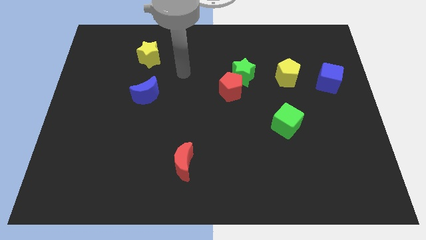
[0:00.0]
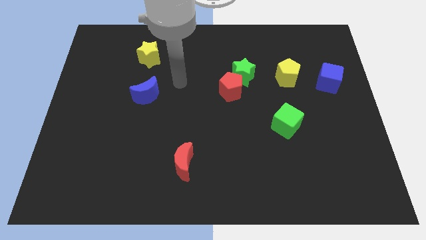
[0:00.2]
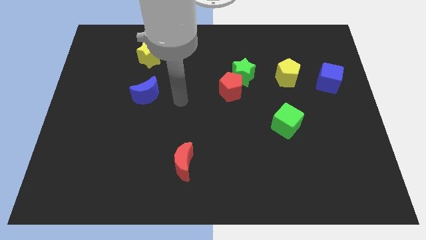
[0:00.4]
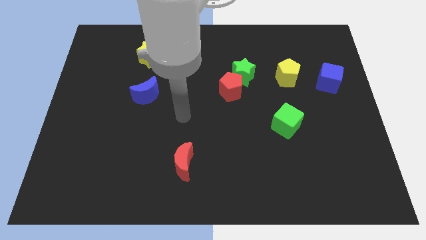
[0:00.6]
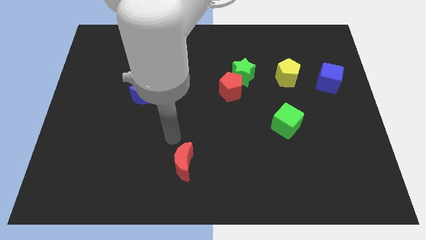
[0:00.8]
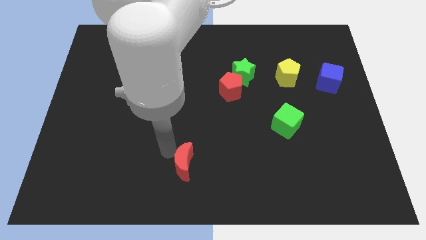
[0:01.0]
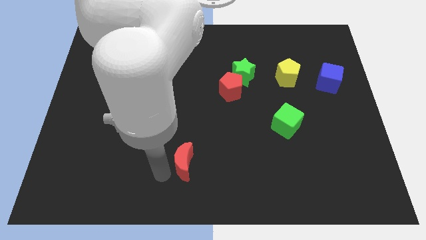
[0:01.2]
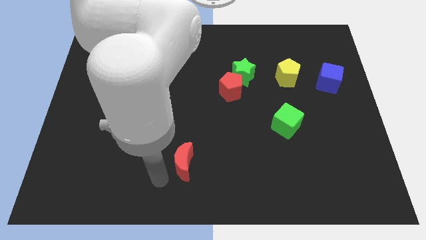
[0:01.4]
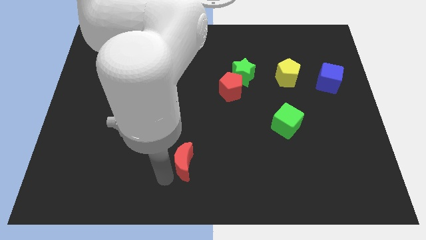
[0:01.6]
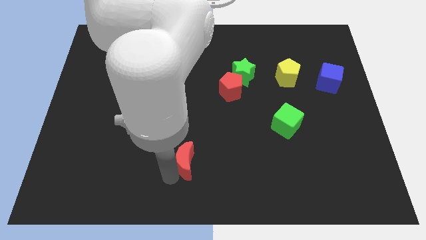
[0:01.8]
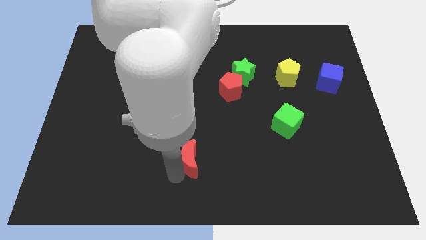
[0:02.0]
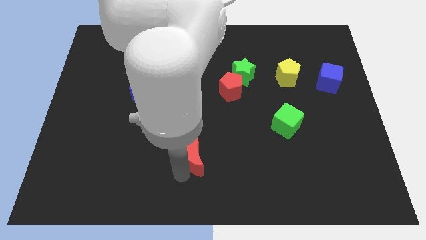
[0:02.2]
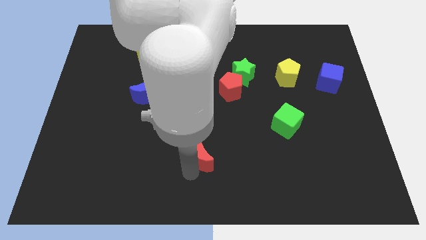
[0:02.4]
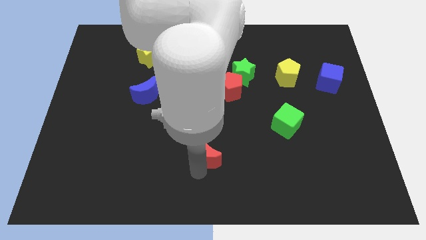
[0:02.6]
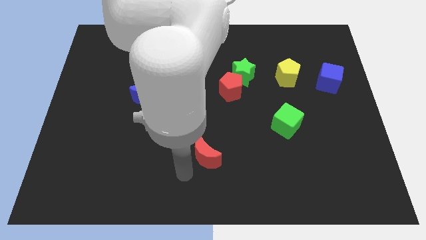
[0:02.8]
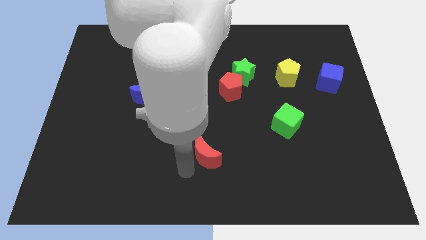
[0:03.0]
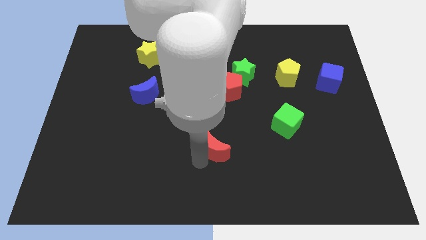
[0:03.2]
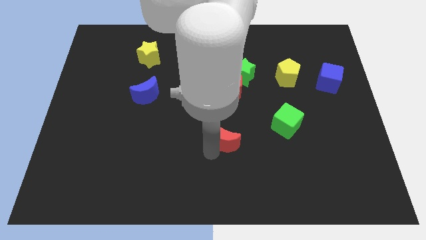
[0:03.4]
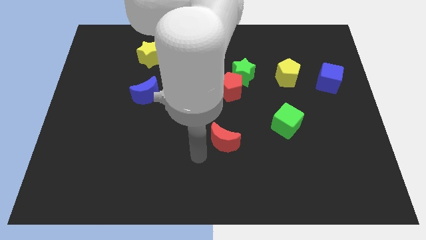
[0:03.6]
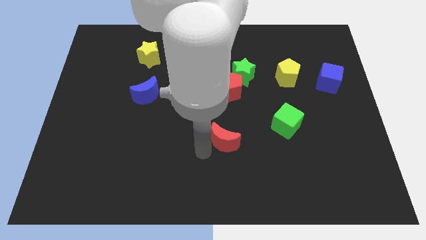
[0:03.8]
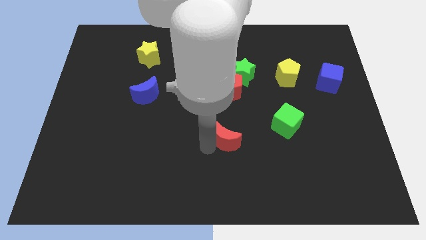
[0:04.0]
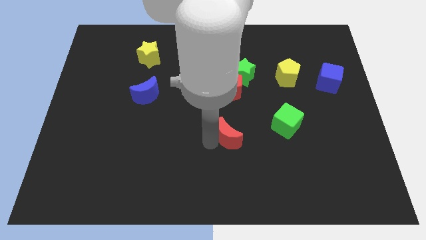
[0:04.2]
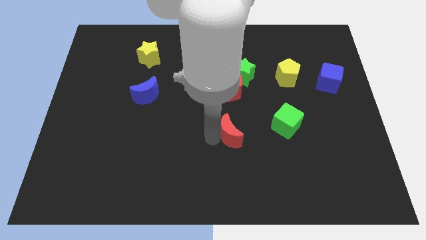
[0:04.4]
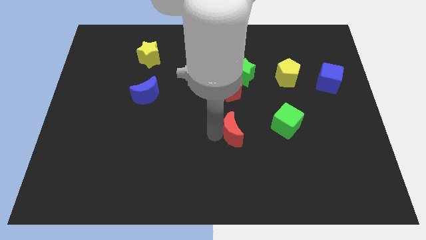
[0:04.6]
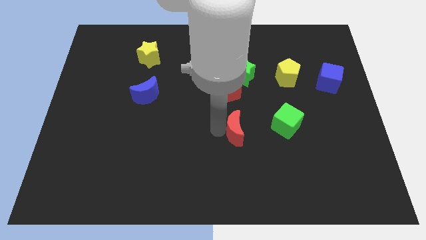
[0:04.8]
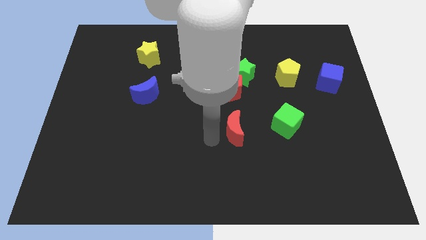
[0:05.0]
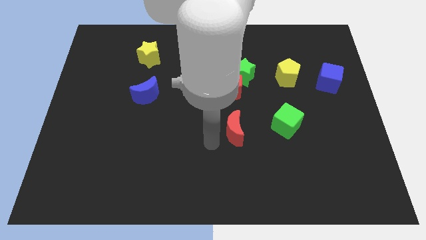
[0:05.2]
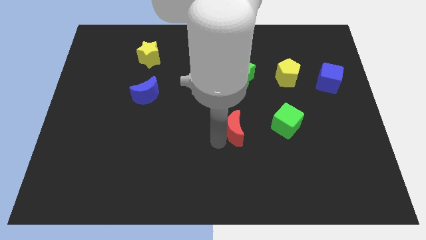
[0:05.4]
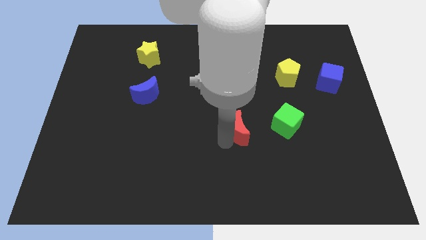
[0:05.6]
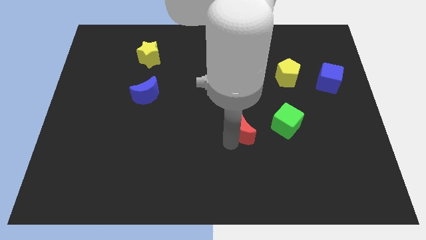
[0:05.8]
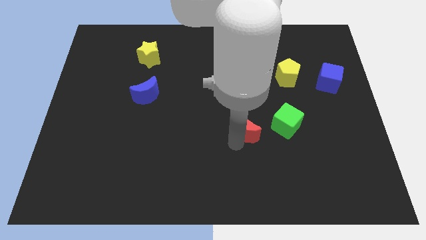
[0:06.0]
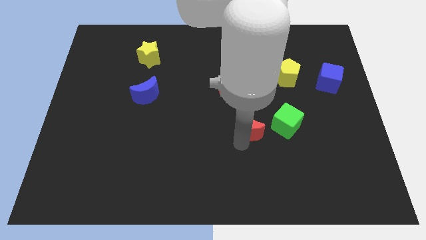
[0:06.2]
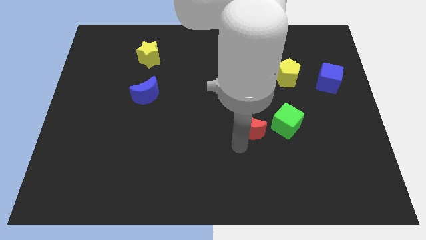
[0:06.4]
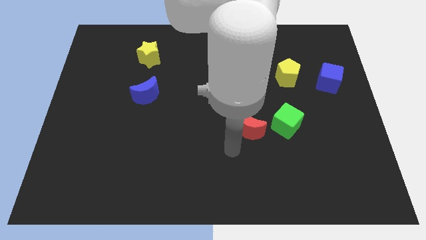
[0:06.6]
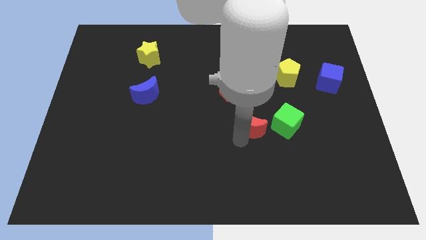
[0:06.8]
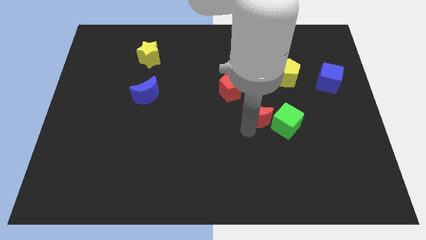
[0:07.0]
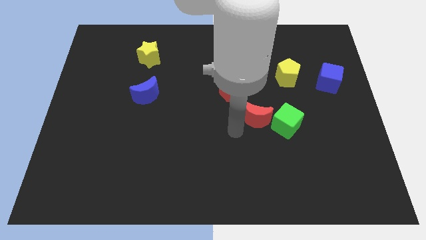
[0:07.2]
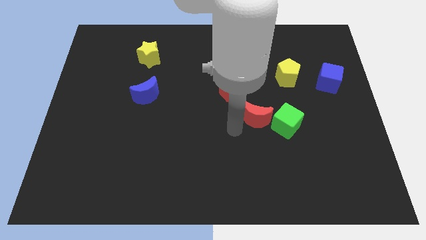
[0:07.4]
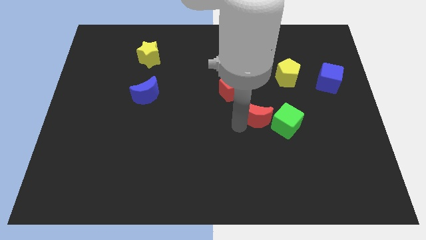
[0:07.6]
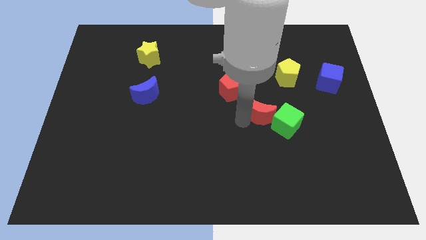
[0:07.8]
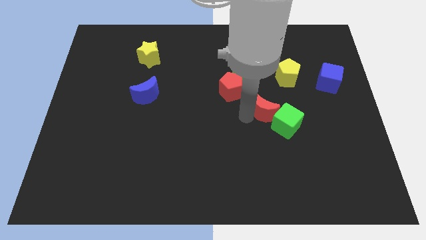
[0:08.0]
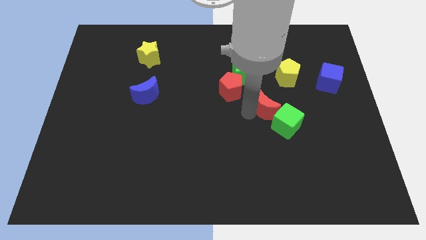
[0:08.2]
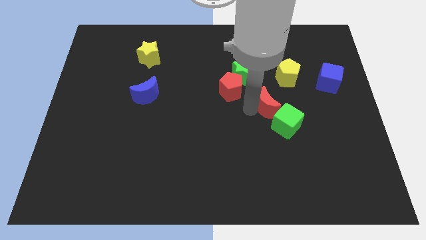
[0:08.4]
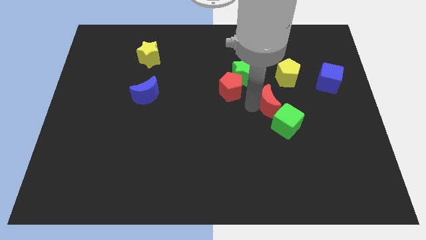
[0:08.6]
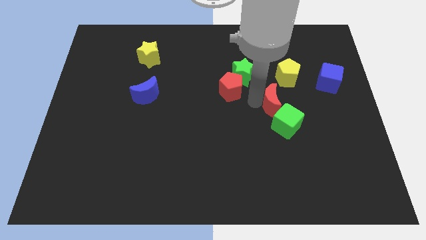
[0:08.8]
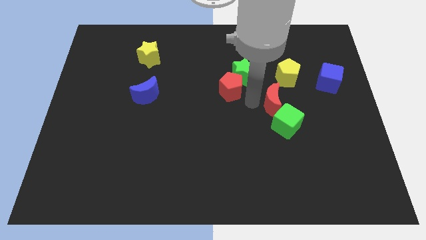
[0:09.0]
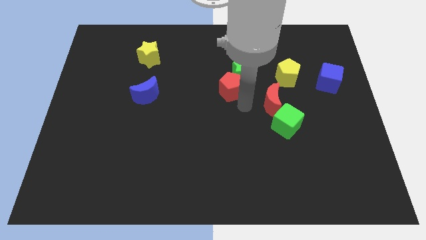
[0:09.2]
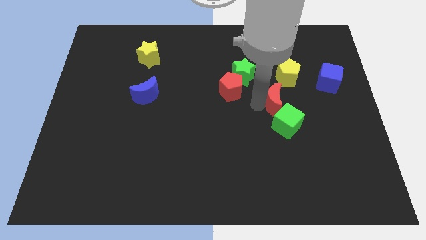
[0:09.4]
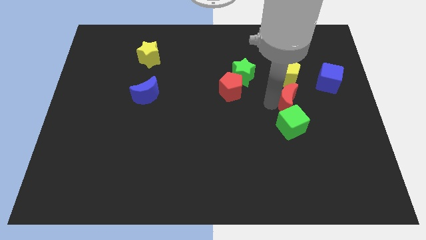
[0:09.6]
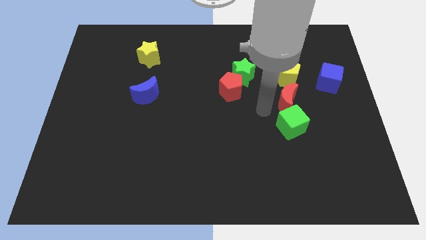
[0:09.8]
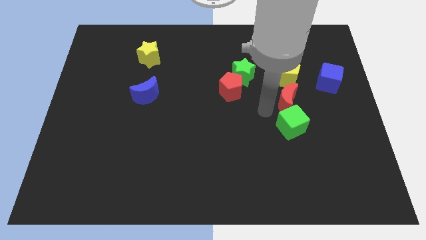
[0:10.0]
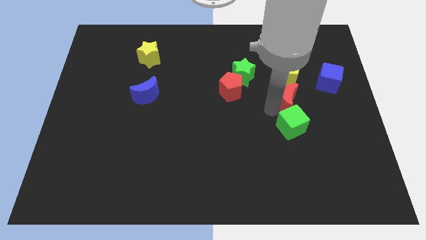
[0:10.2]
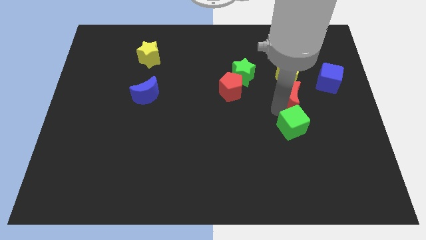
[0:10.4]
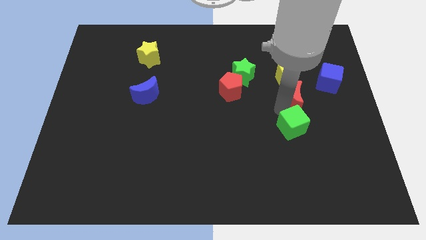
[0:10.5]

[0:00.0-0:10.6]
push the red moon diagonally down and to the right of the yellow pentagon

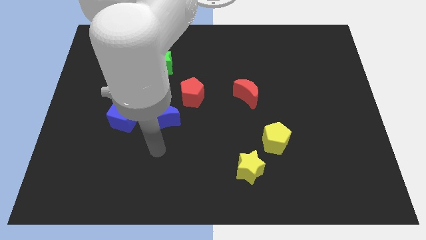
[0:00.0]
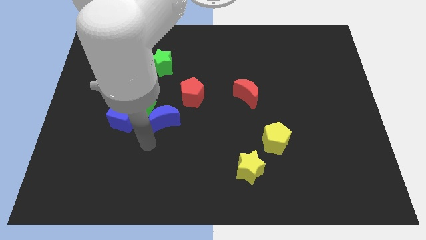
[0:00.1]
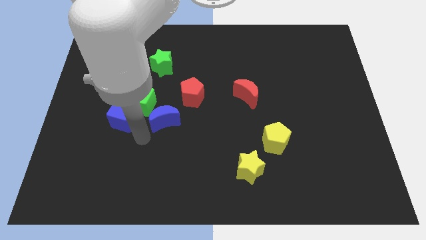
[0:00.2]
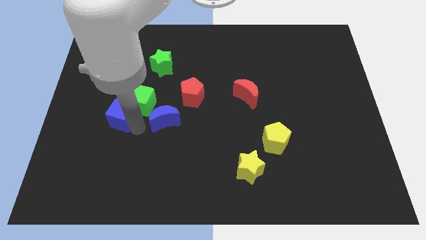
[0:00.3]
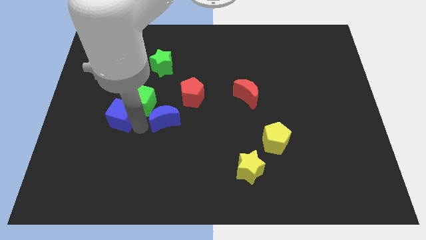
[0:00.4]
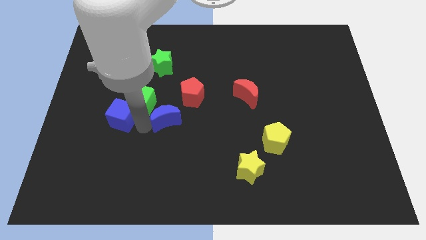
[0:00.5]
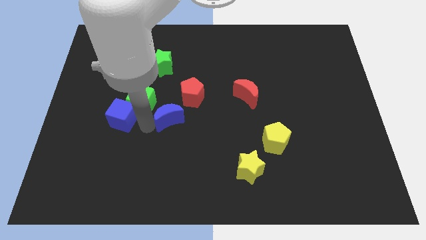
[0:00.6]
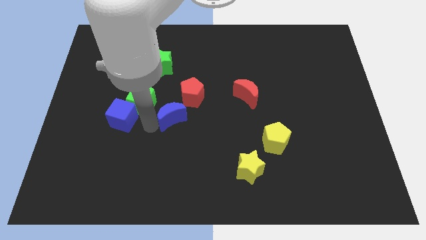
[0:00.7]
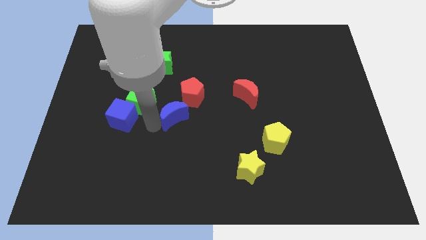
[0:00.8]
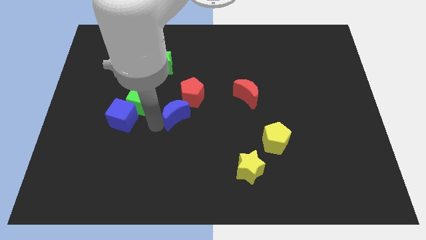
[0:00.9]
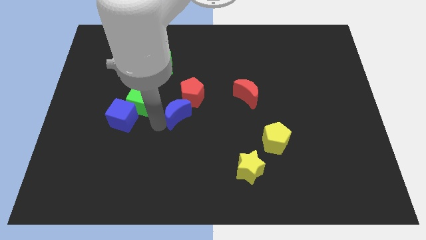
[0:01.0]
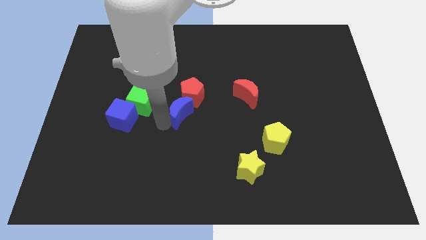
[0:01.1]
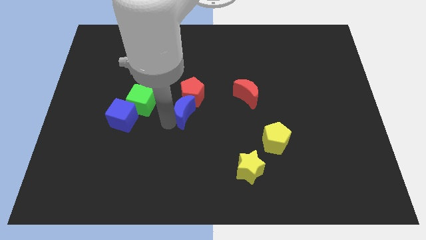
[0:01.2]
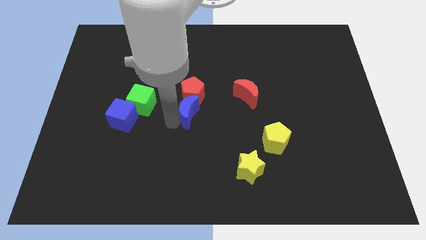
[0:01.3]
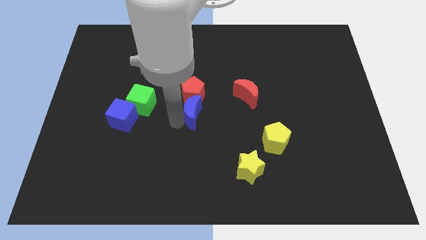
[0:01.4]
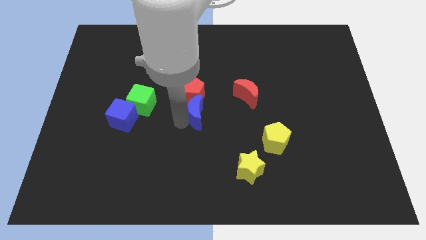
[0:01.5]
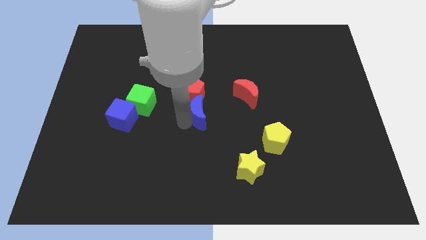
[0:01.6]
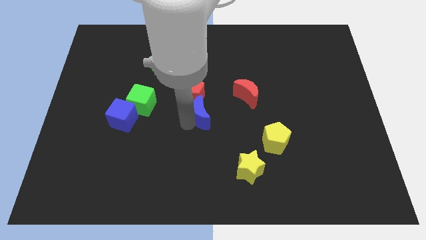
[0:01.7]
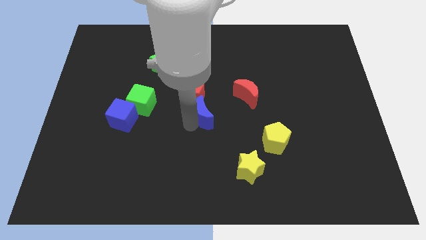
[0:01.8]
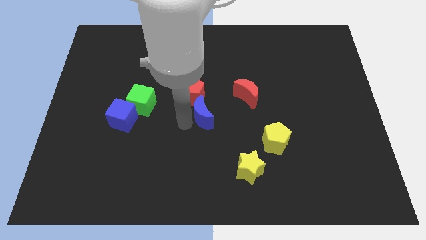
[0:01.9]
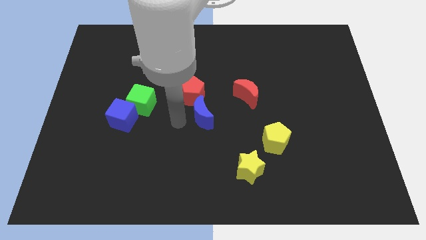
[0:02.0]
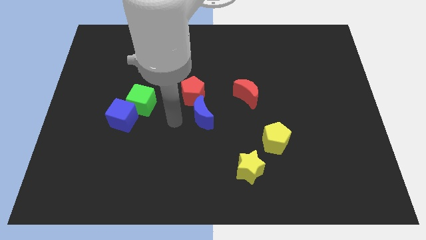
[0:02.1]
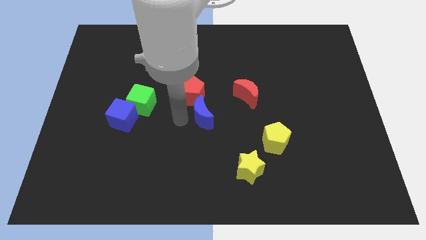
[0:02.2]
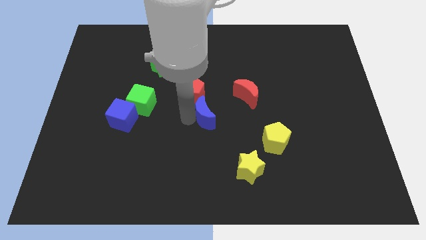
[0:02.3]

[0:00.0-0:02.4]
move the blue moon to the bottom left side of the red moon
